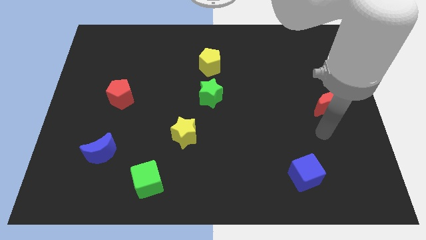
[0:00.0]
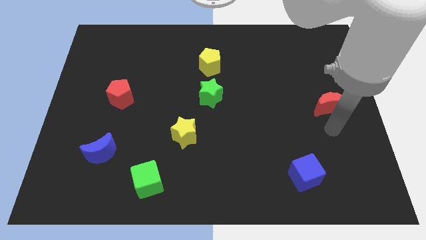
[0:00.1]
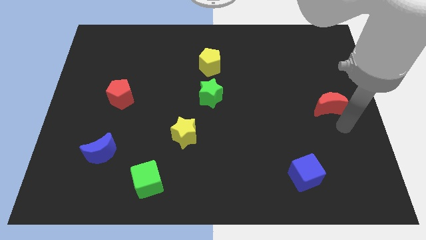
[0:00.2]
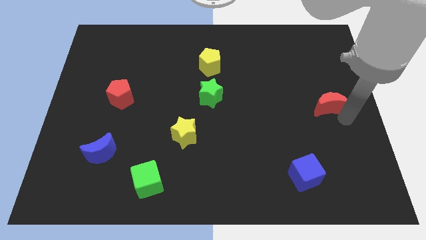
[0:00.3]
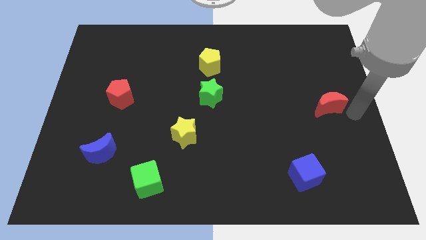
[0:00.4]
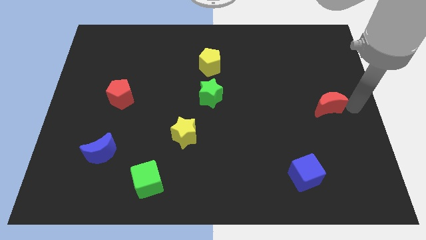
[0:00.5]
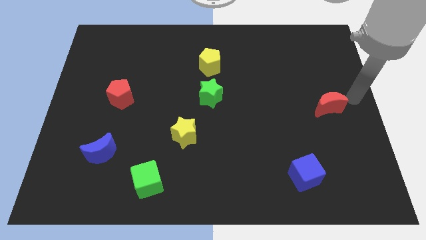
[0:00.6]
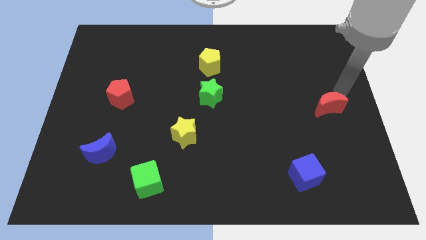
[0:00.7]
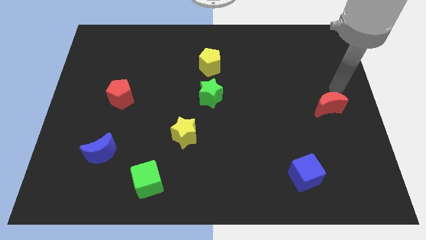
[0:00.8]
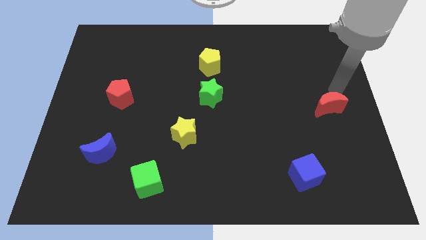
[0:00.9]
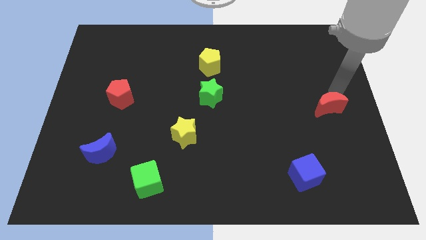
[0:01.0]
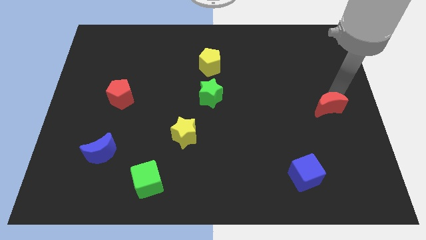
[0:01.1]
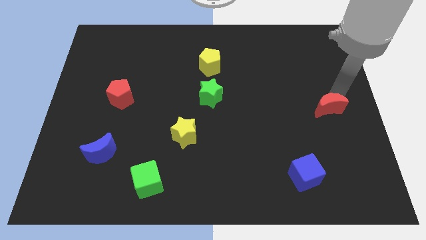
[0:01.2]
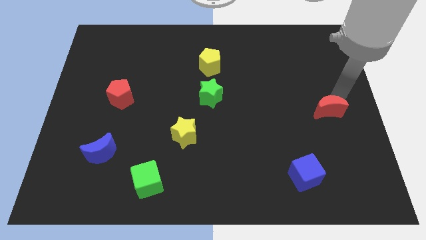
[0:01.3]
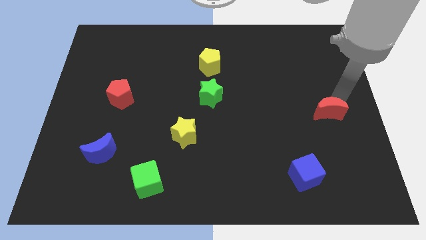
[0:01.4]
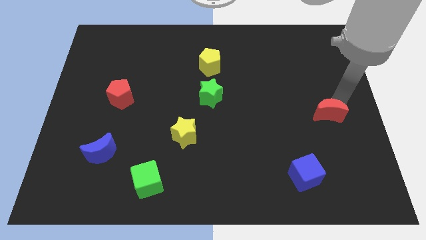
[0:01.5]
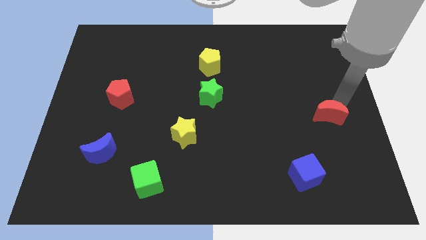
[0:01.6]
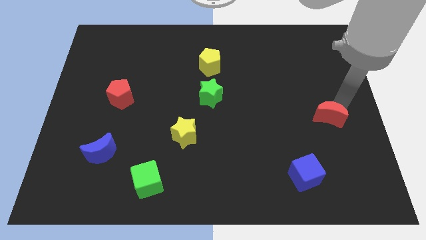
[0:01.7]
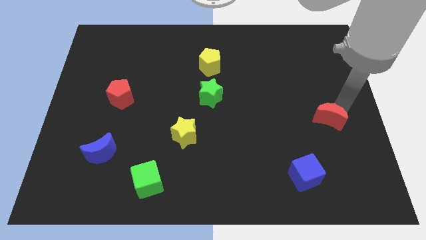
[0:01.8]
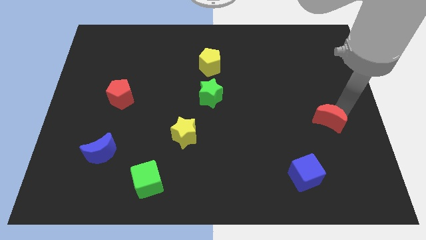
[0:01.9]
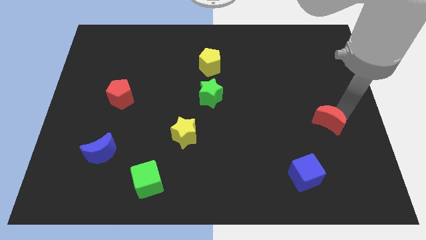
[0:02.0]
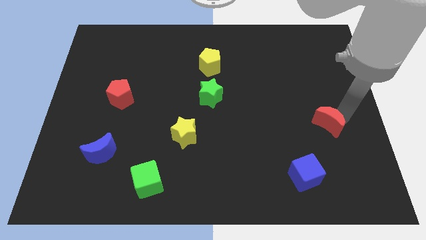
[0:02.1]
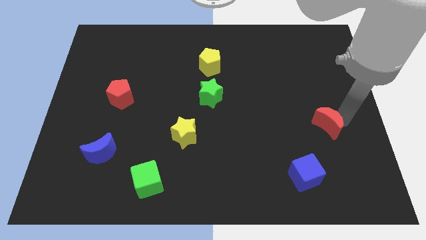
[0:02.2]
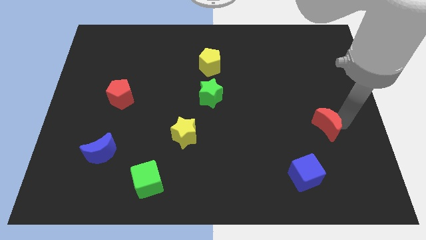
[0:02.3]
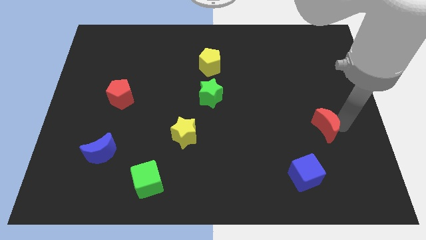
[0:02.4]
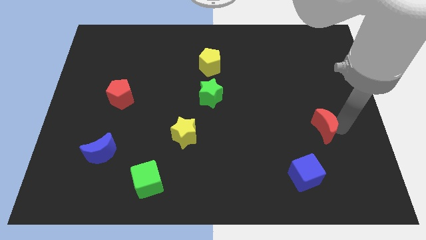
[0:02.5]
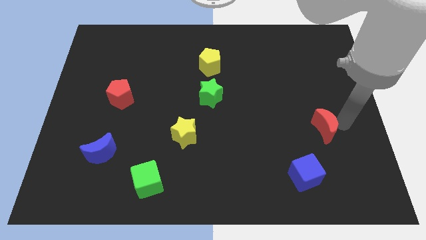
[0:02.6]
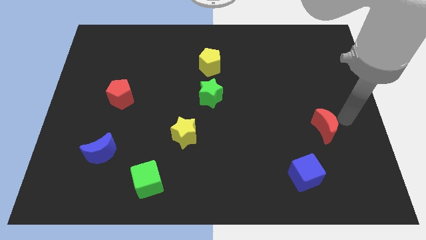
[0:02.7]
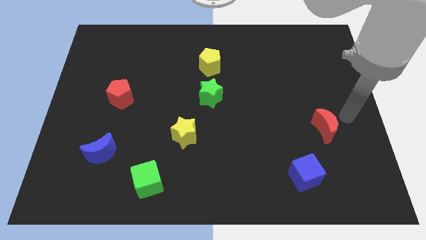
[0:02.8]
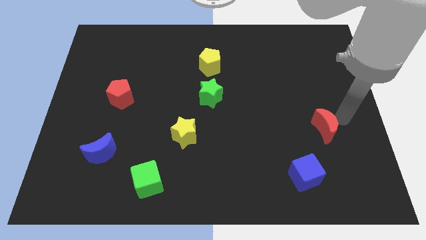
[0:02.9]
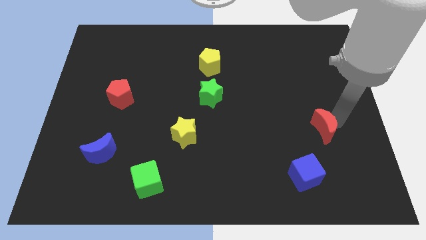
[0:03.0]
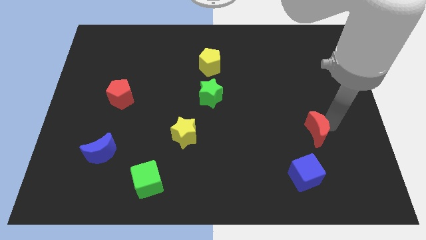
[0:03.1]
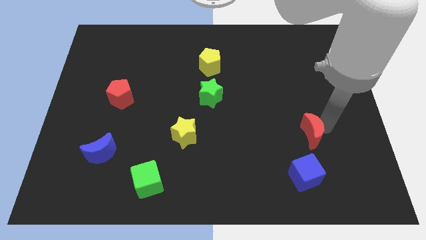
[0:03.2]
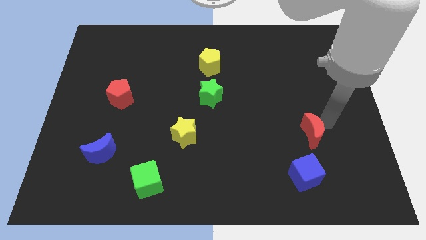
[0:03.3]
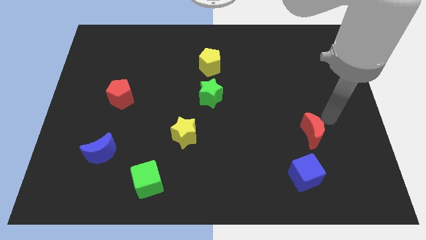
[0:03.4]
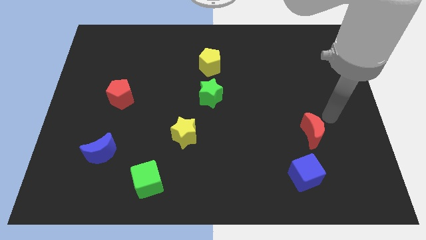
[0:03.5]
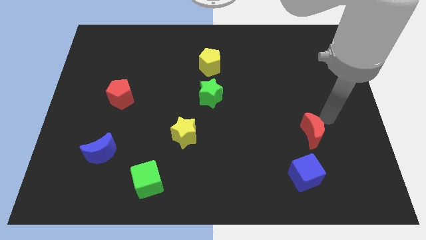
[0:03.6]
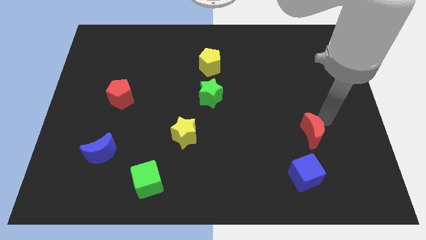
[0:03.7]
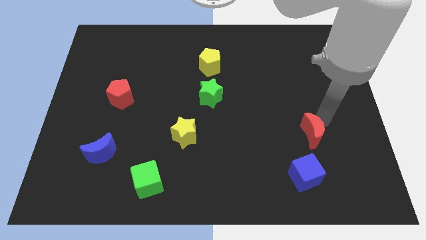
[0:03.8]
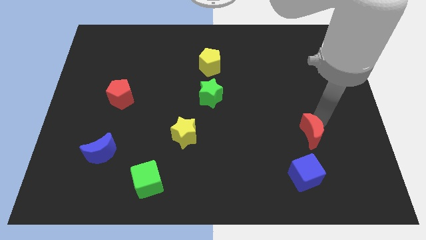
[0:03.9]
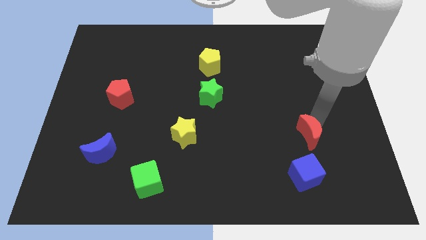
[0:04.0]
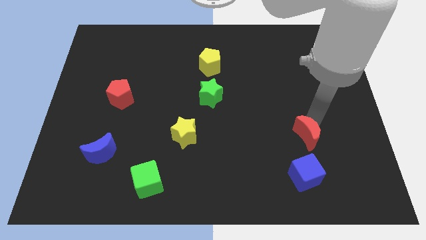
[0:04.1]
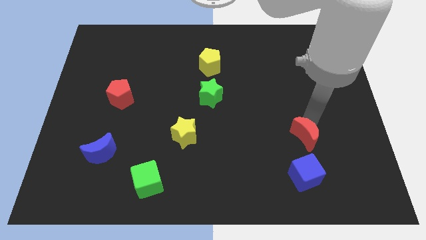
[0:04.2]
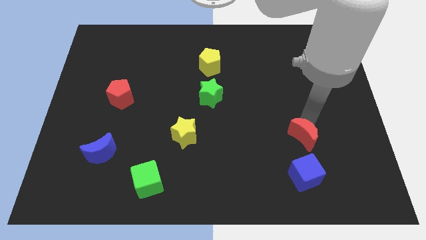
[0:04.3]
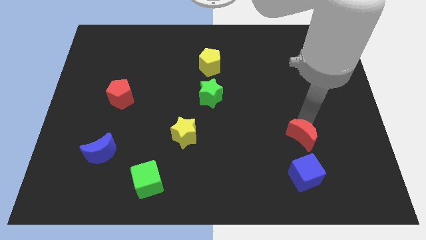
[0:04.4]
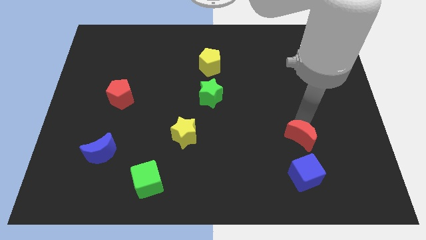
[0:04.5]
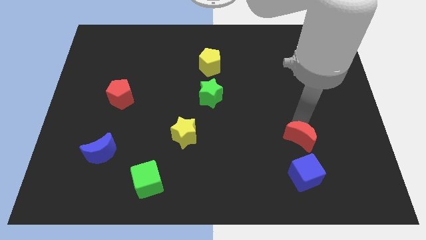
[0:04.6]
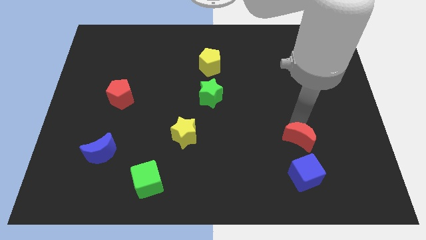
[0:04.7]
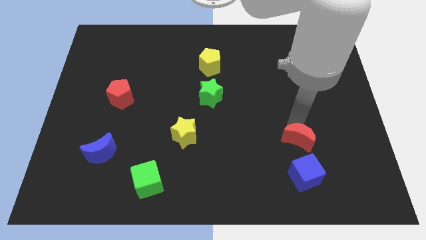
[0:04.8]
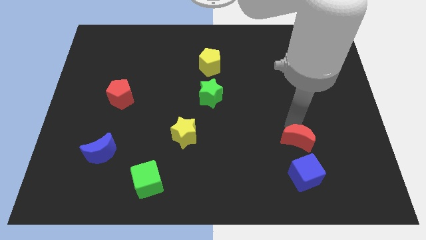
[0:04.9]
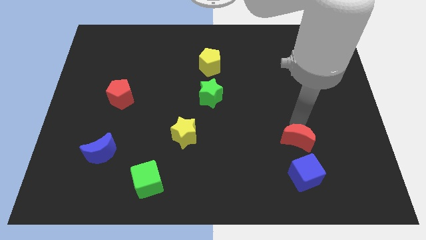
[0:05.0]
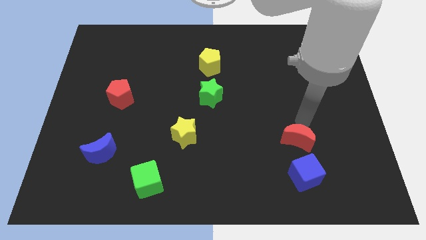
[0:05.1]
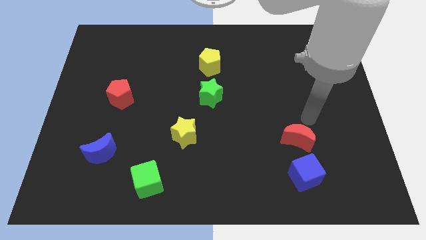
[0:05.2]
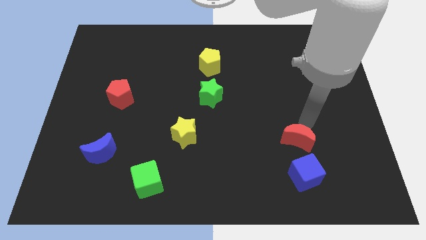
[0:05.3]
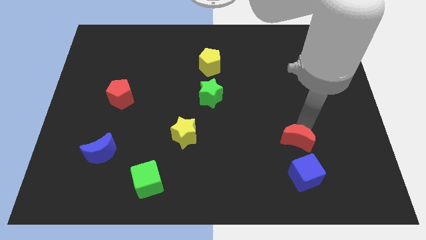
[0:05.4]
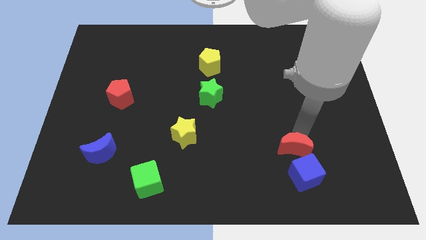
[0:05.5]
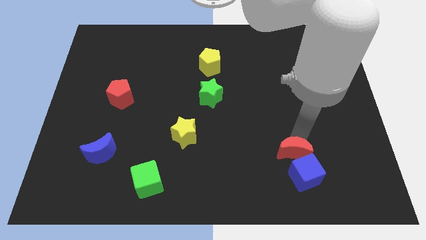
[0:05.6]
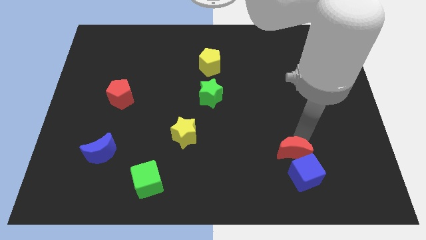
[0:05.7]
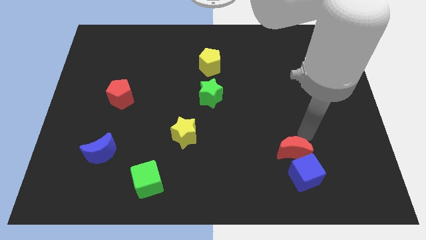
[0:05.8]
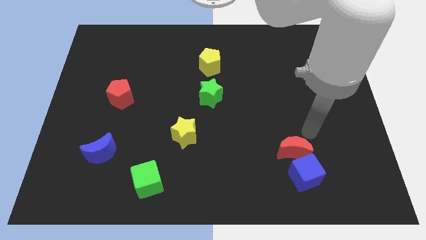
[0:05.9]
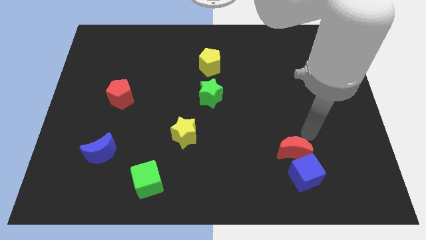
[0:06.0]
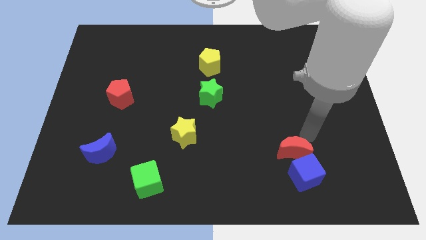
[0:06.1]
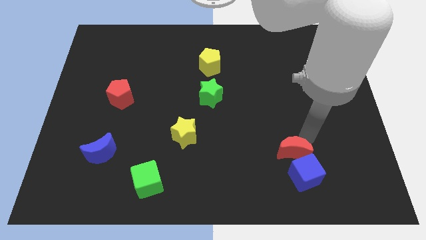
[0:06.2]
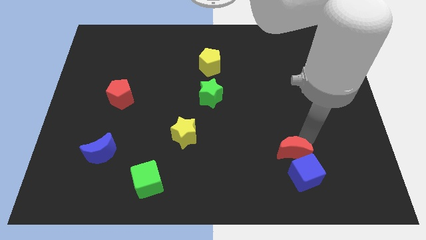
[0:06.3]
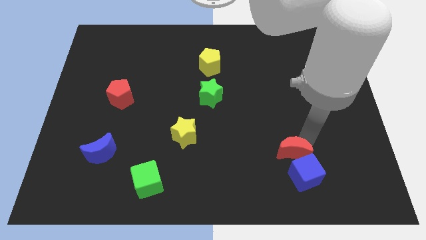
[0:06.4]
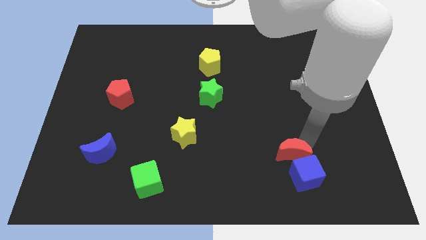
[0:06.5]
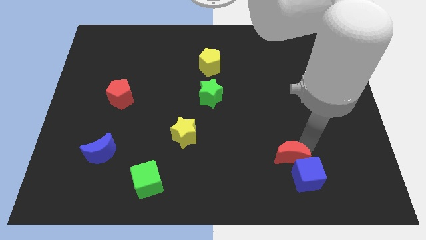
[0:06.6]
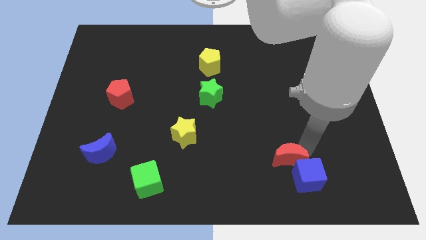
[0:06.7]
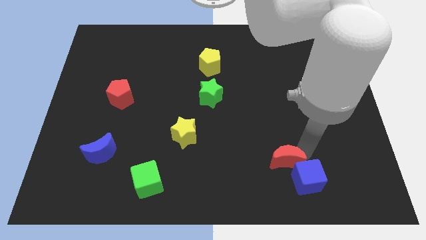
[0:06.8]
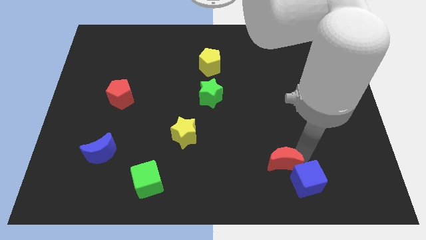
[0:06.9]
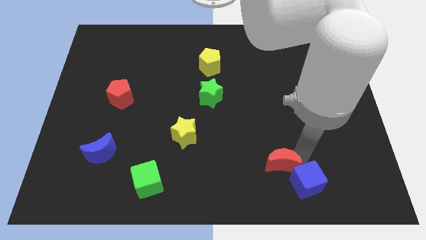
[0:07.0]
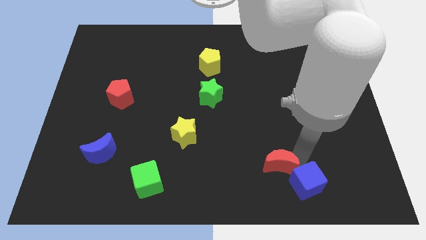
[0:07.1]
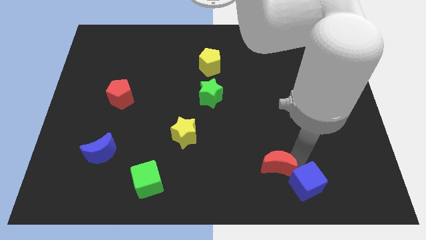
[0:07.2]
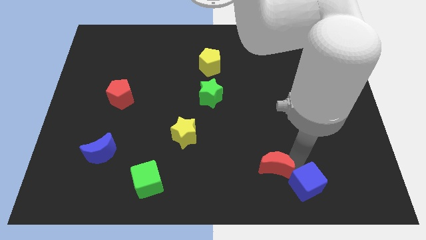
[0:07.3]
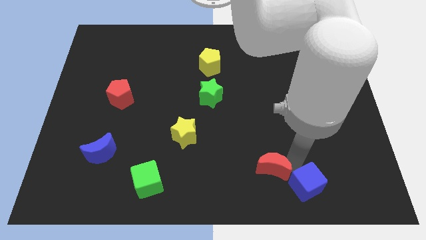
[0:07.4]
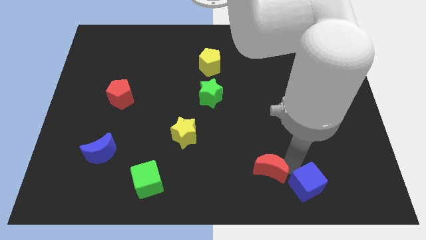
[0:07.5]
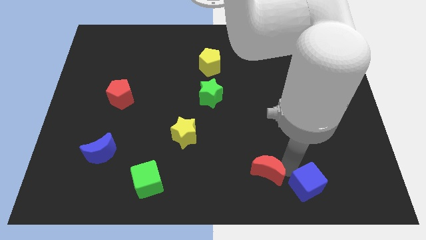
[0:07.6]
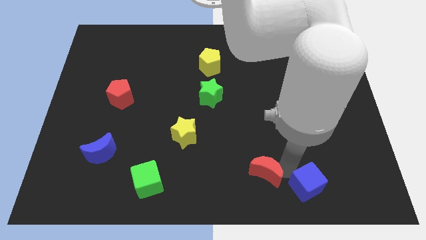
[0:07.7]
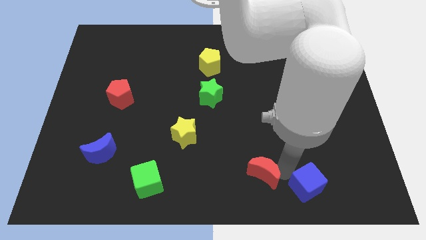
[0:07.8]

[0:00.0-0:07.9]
move the red moon to the bottom side
